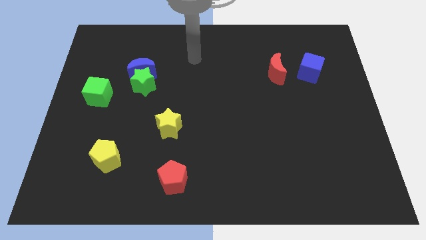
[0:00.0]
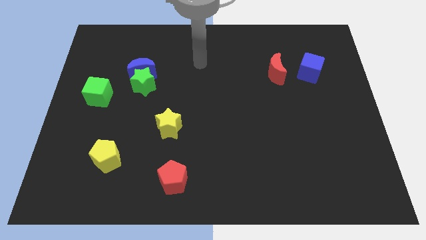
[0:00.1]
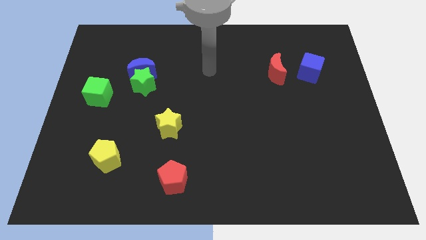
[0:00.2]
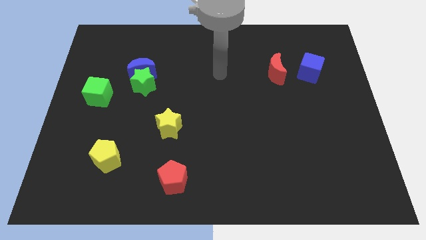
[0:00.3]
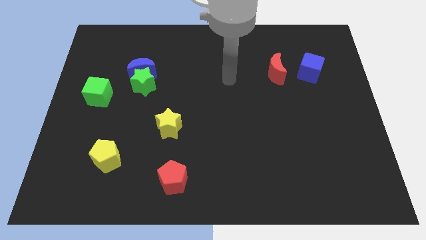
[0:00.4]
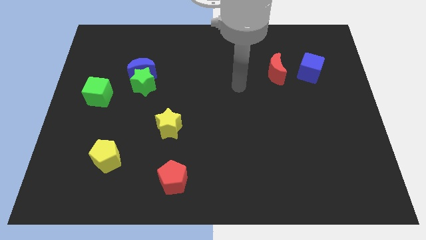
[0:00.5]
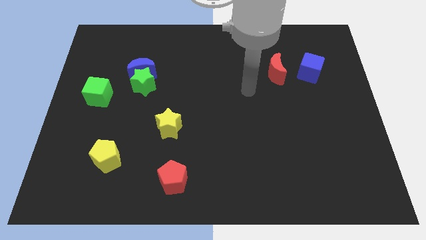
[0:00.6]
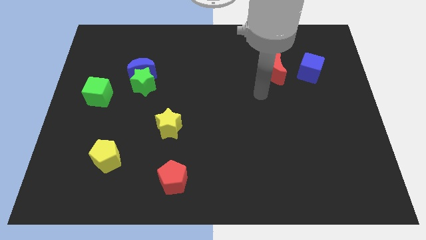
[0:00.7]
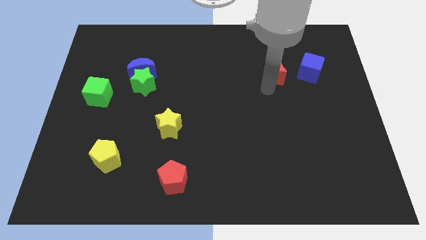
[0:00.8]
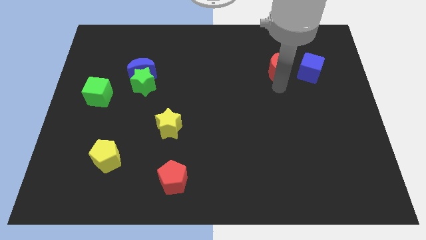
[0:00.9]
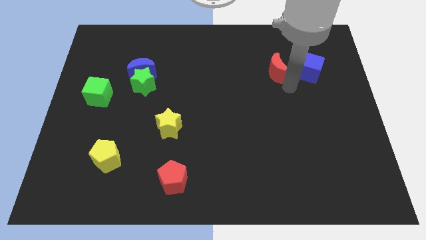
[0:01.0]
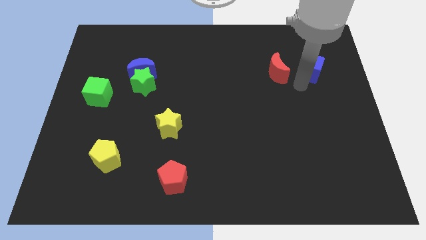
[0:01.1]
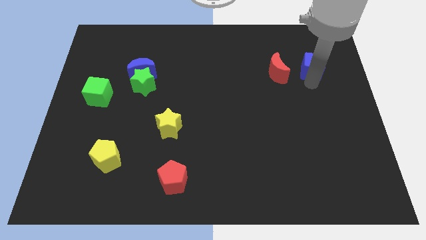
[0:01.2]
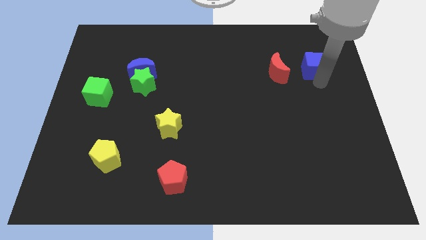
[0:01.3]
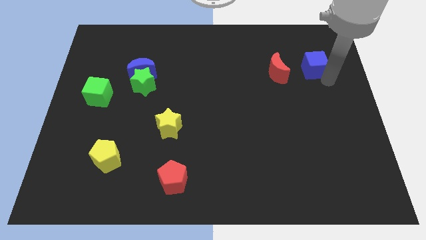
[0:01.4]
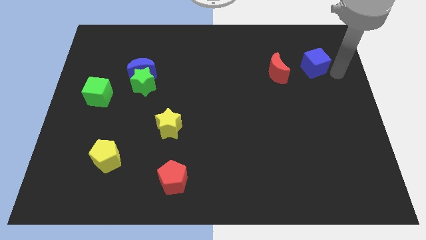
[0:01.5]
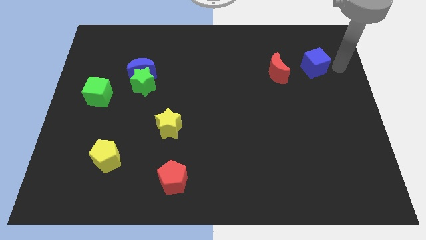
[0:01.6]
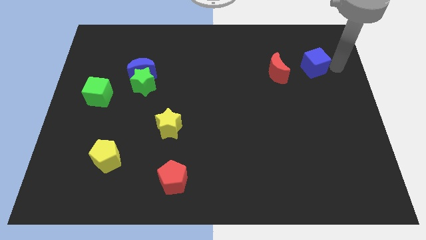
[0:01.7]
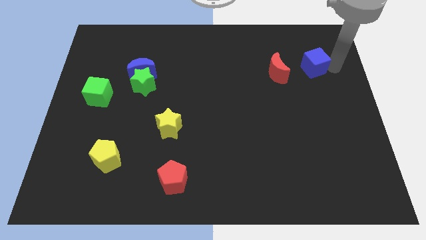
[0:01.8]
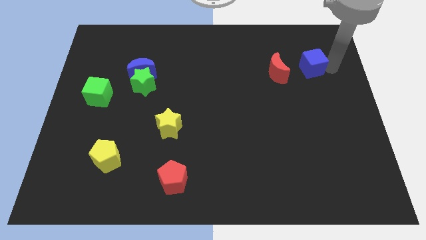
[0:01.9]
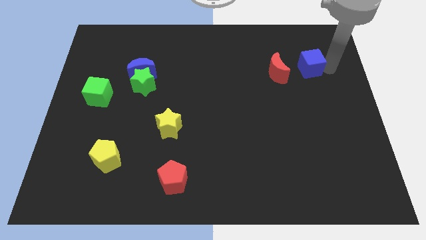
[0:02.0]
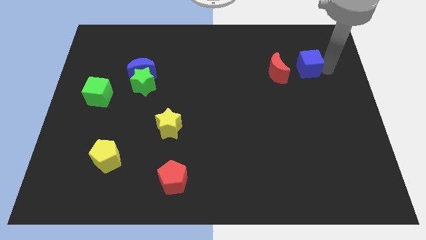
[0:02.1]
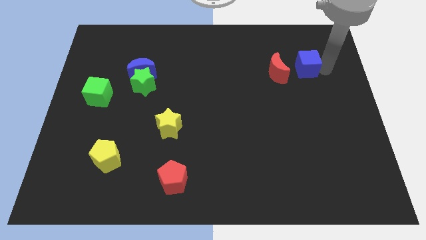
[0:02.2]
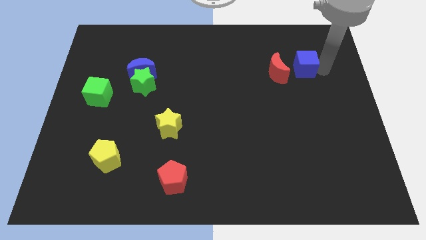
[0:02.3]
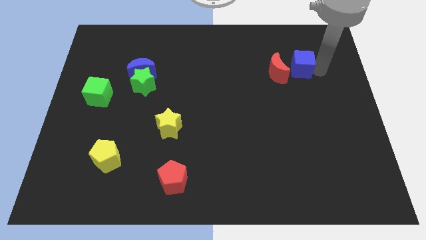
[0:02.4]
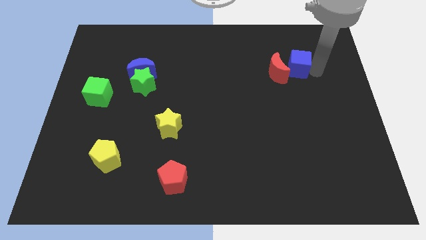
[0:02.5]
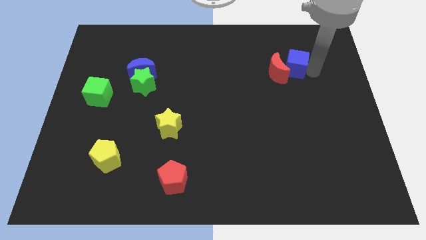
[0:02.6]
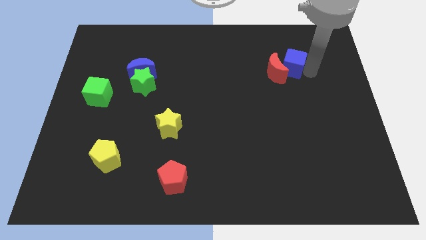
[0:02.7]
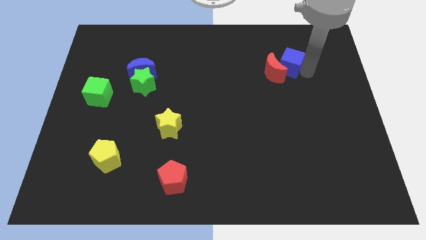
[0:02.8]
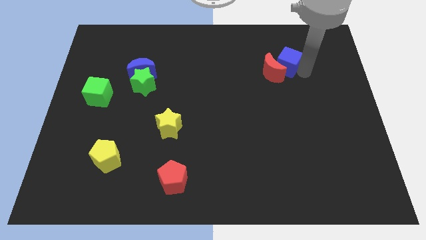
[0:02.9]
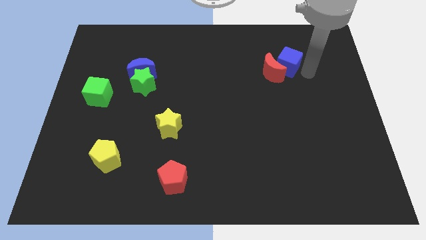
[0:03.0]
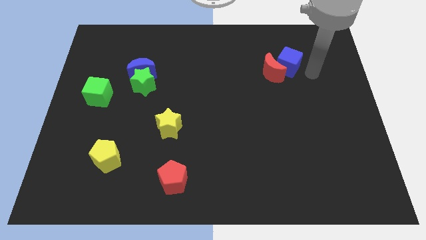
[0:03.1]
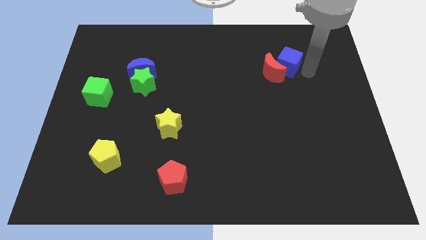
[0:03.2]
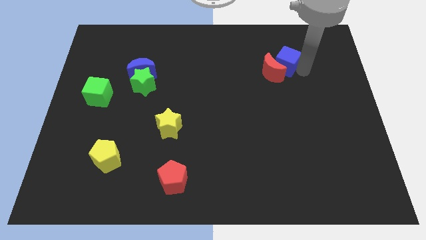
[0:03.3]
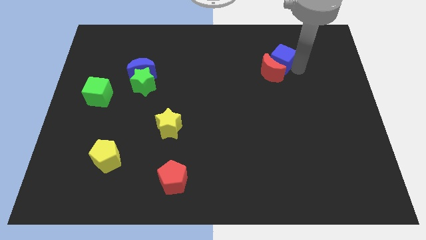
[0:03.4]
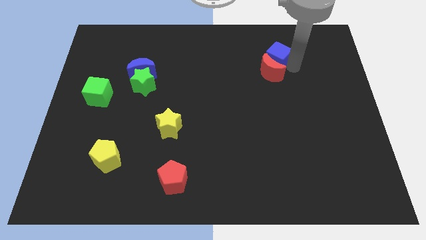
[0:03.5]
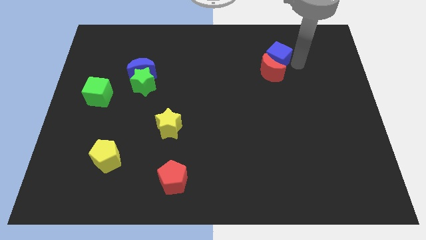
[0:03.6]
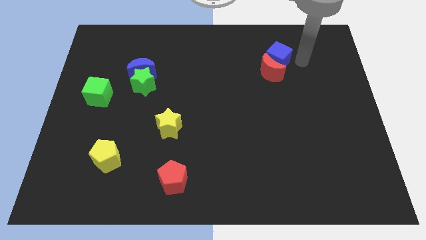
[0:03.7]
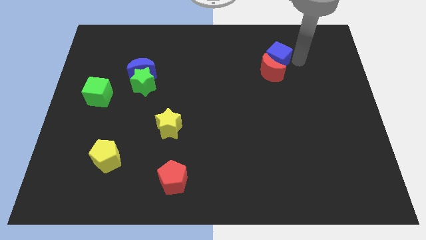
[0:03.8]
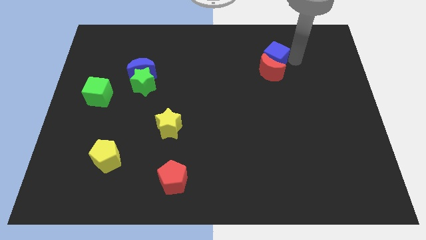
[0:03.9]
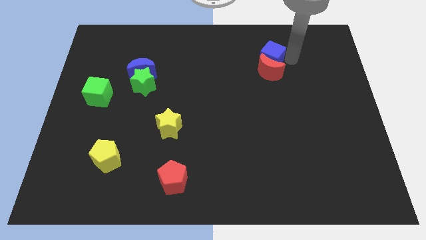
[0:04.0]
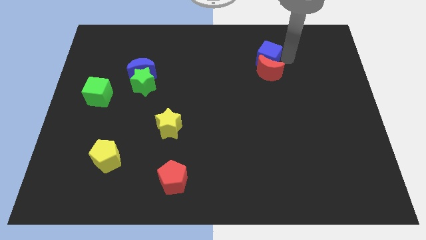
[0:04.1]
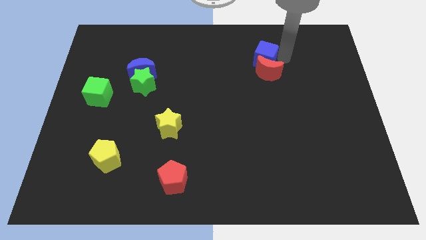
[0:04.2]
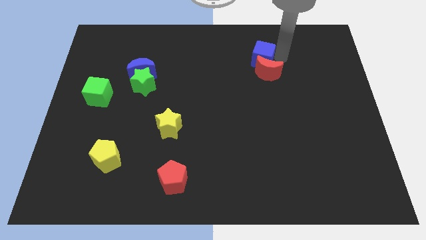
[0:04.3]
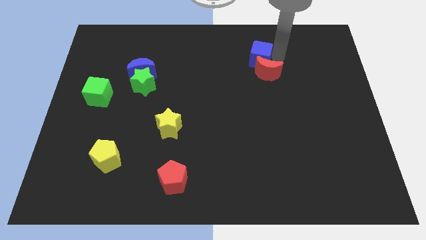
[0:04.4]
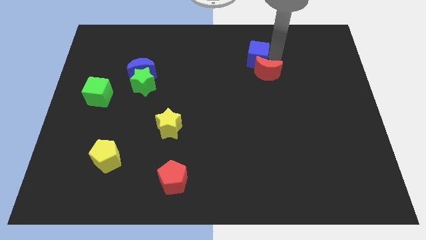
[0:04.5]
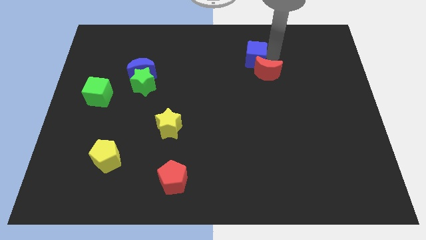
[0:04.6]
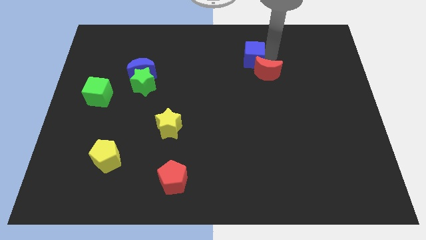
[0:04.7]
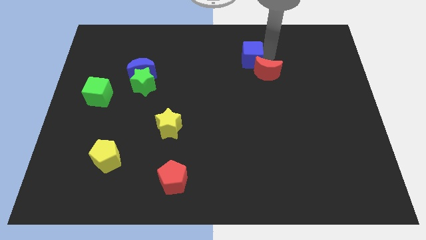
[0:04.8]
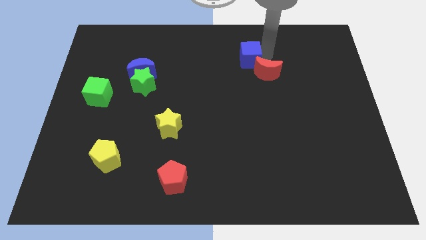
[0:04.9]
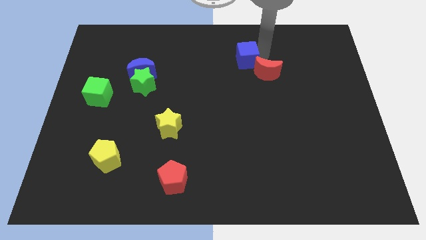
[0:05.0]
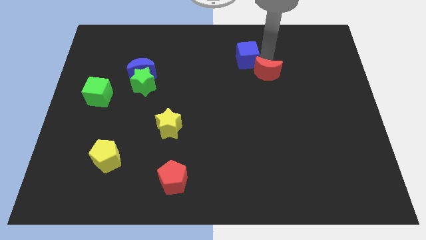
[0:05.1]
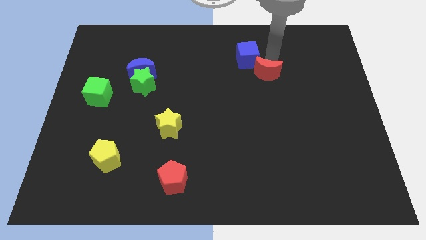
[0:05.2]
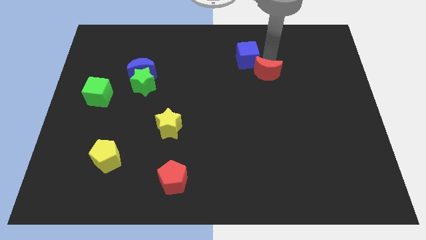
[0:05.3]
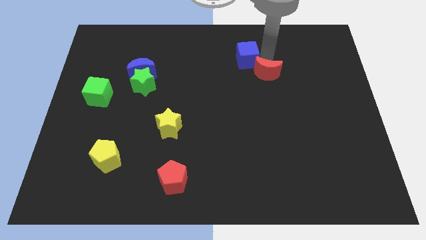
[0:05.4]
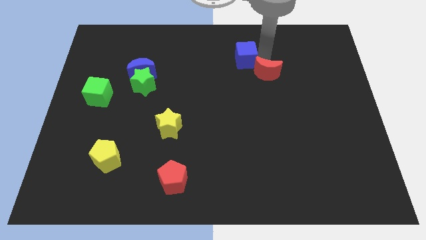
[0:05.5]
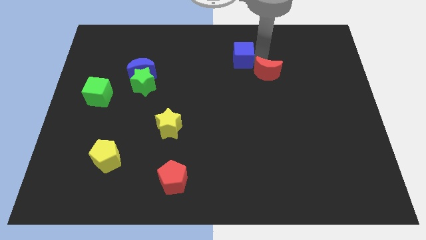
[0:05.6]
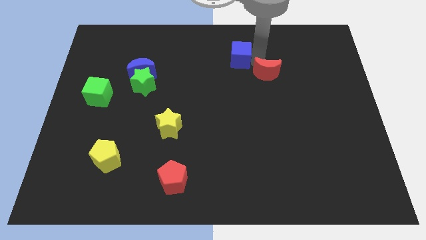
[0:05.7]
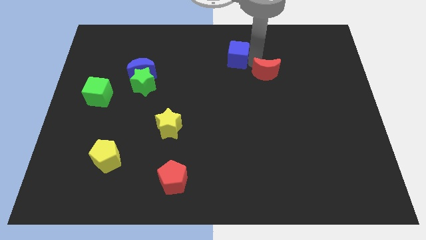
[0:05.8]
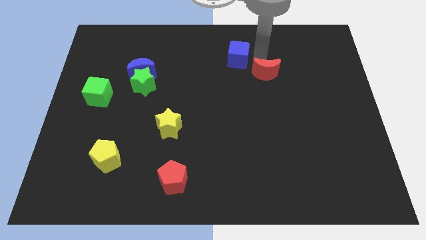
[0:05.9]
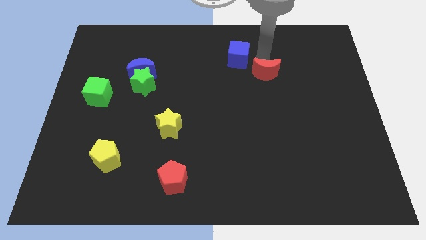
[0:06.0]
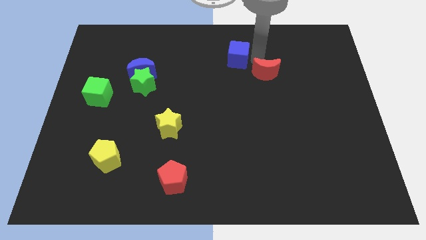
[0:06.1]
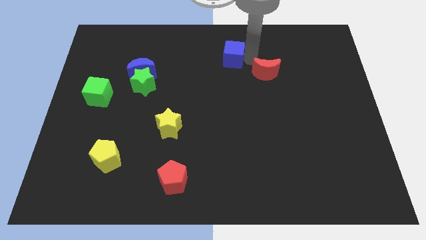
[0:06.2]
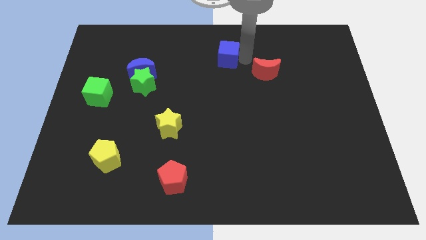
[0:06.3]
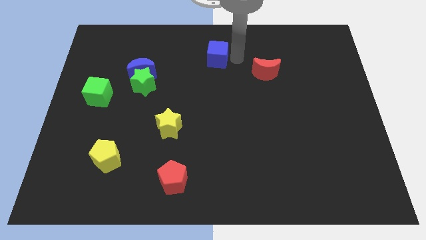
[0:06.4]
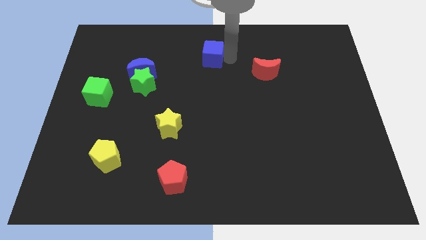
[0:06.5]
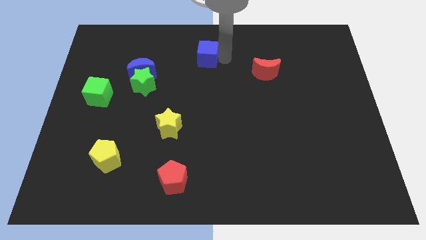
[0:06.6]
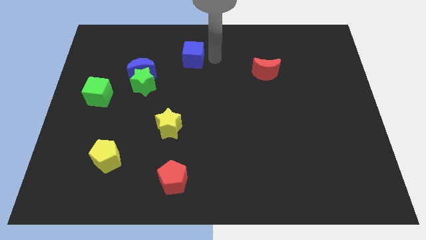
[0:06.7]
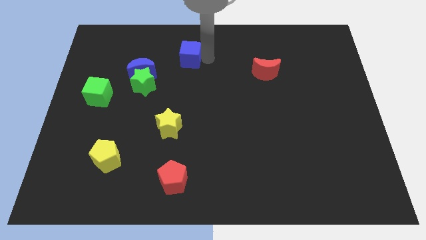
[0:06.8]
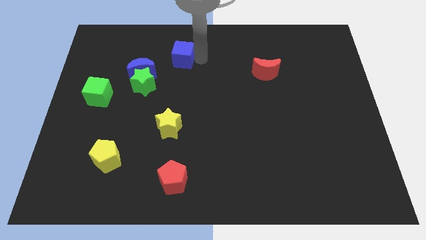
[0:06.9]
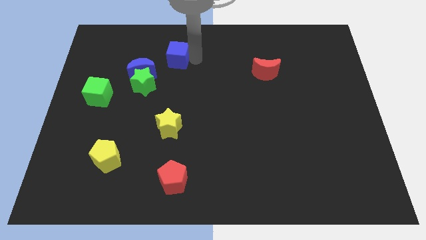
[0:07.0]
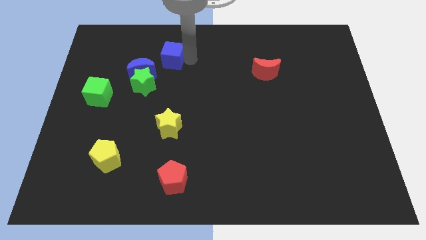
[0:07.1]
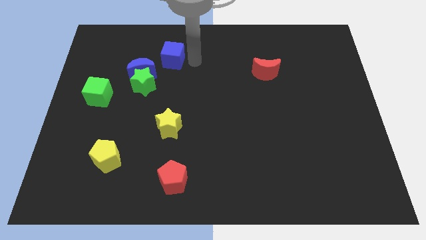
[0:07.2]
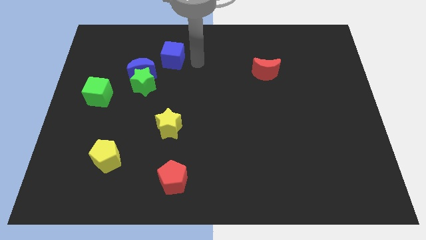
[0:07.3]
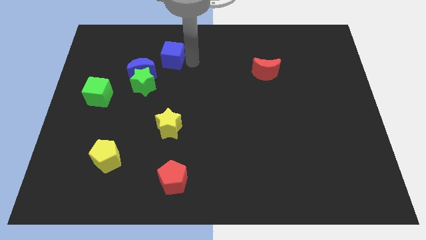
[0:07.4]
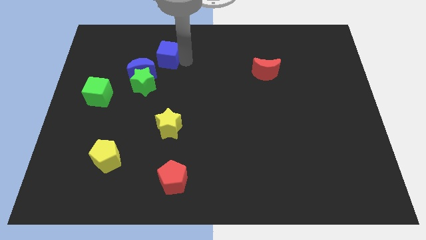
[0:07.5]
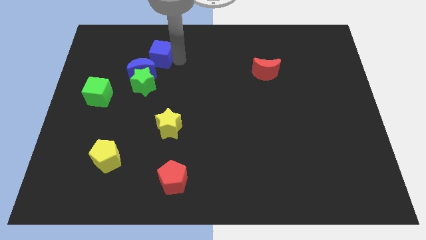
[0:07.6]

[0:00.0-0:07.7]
slide the blue cube to the top of the green star
